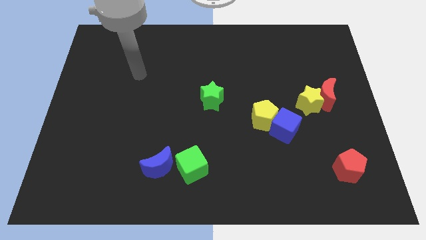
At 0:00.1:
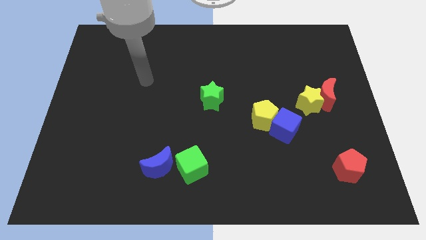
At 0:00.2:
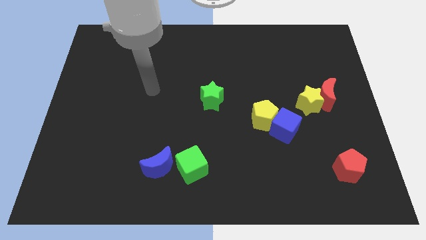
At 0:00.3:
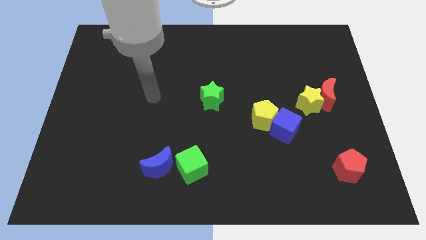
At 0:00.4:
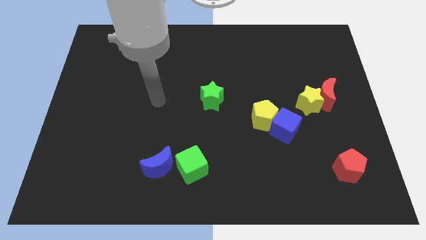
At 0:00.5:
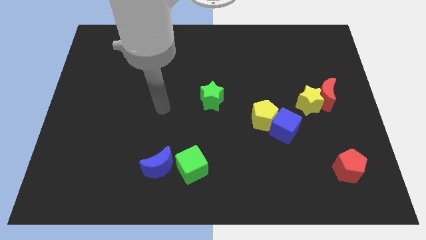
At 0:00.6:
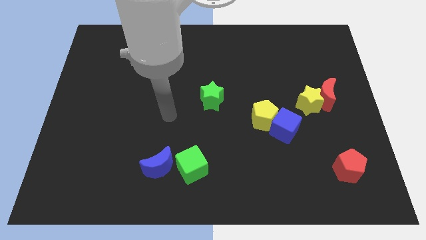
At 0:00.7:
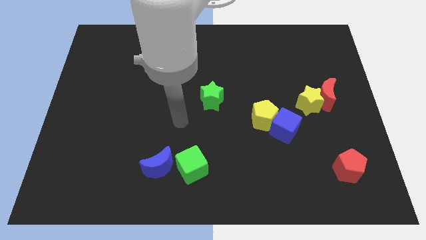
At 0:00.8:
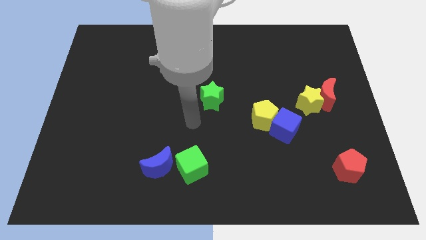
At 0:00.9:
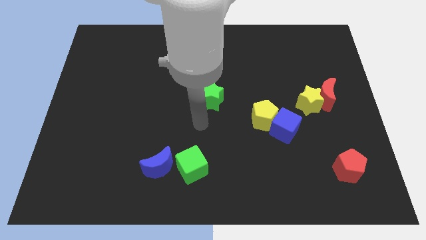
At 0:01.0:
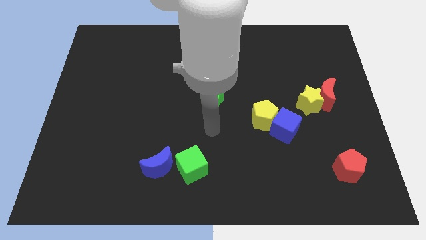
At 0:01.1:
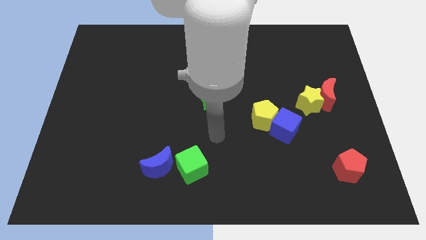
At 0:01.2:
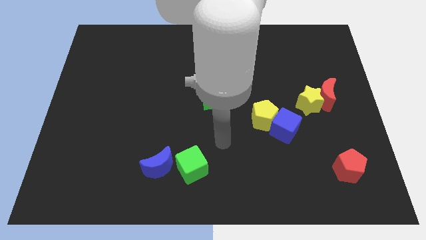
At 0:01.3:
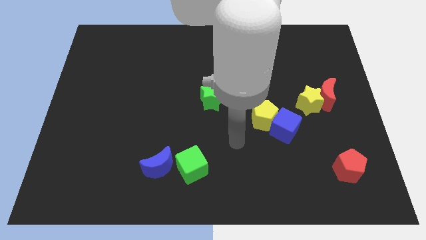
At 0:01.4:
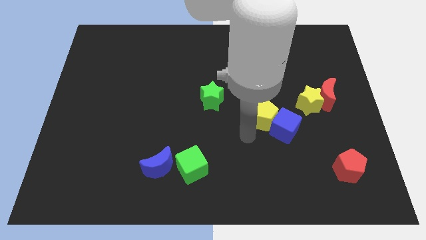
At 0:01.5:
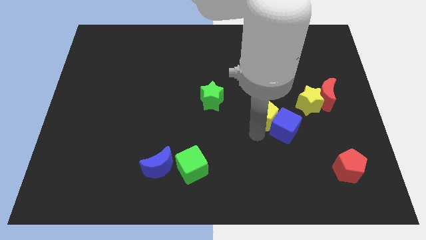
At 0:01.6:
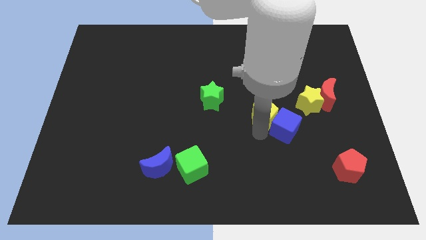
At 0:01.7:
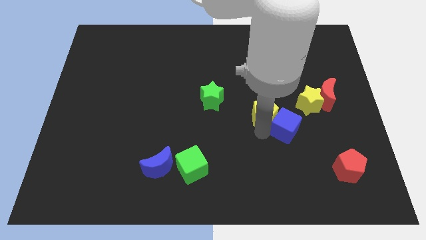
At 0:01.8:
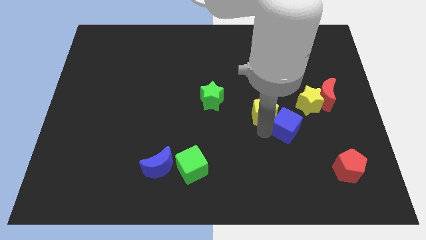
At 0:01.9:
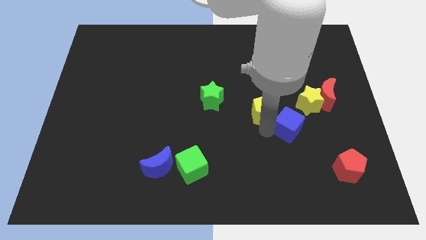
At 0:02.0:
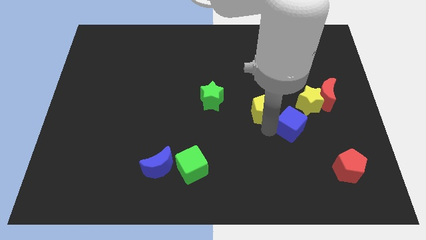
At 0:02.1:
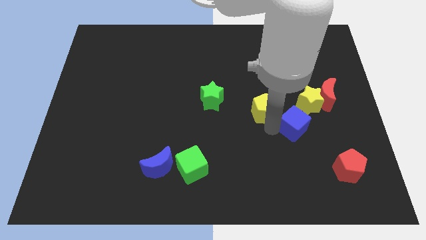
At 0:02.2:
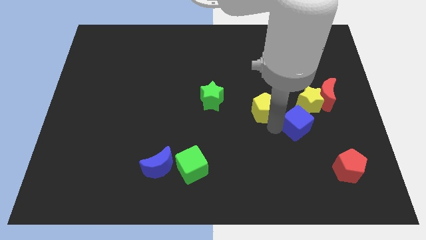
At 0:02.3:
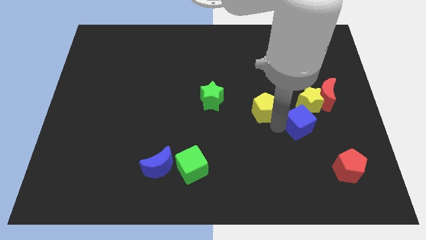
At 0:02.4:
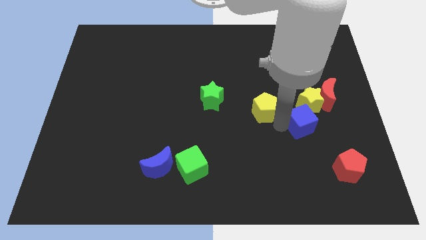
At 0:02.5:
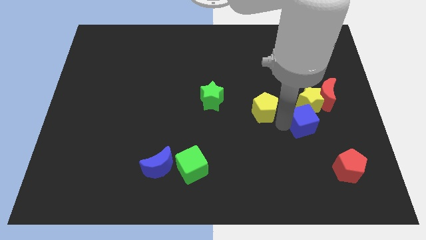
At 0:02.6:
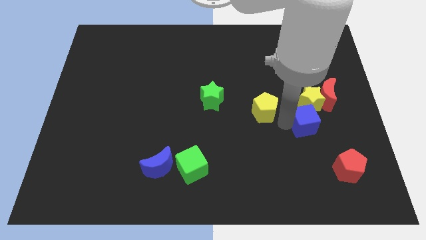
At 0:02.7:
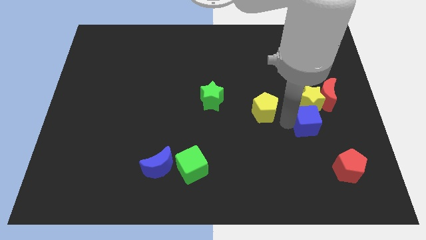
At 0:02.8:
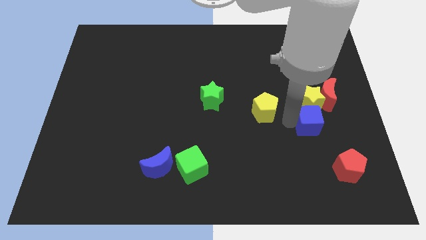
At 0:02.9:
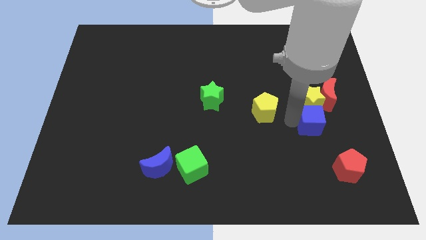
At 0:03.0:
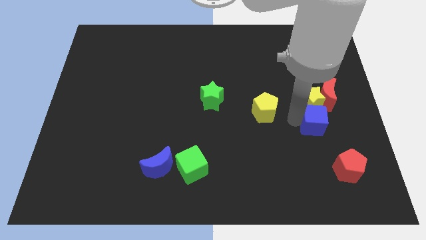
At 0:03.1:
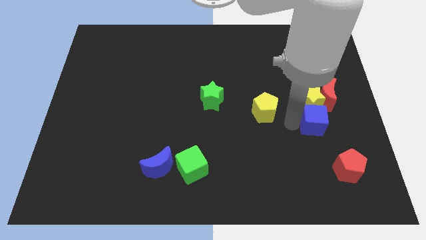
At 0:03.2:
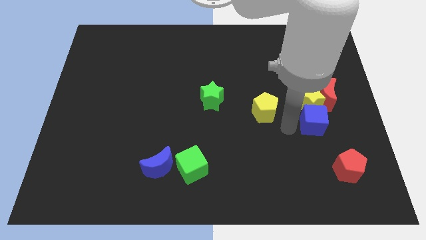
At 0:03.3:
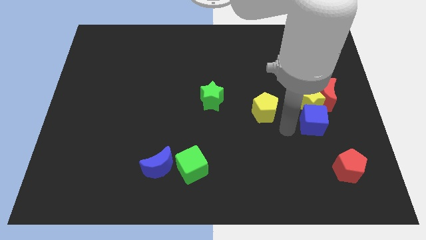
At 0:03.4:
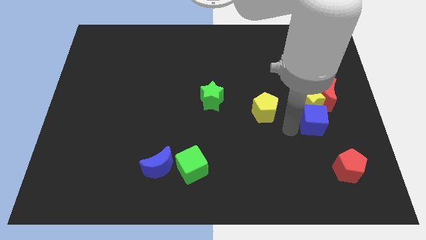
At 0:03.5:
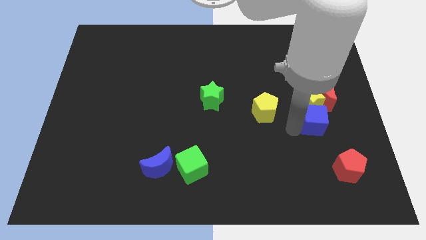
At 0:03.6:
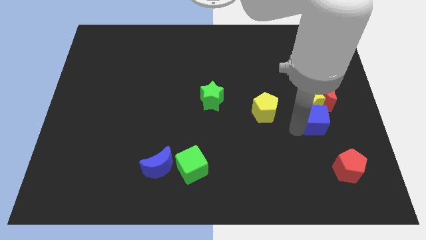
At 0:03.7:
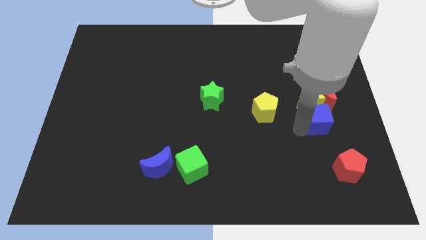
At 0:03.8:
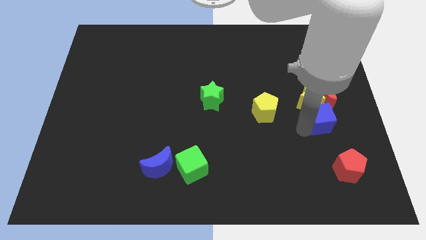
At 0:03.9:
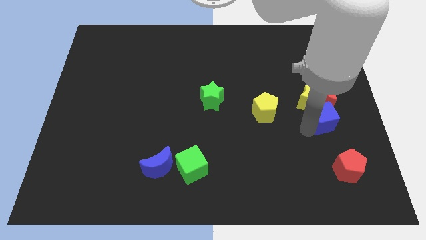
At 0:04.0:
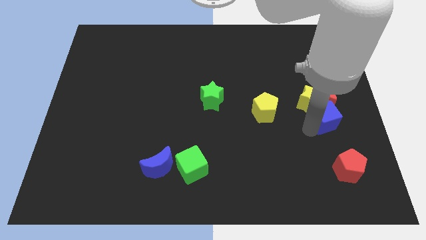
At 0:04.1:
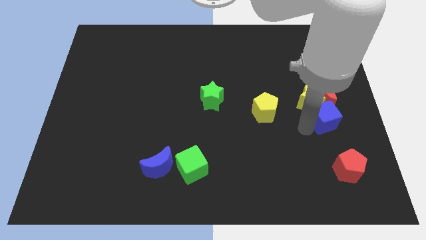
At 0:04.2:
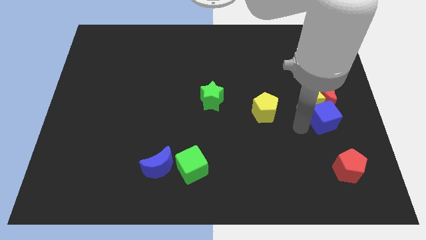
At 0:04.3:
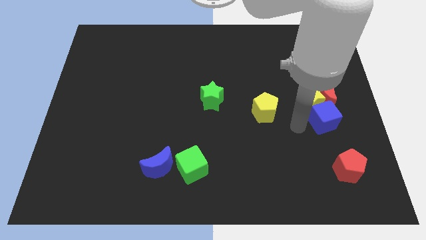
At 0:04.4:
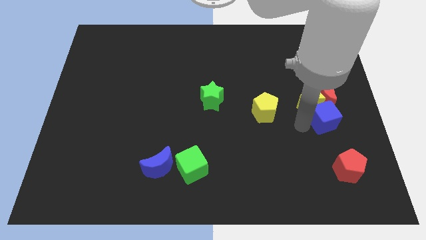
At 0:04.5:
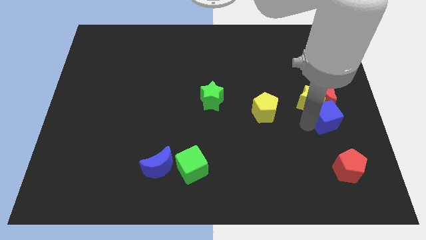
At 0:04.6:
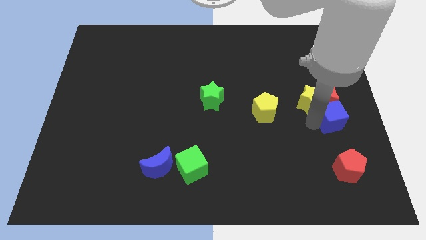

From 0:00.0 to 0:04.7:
push the blue cube to the right side

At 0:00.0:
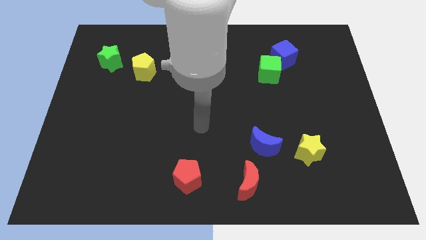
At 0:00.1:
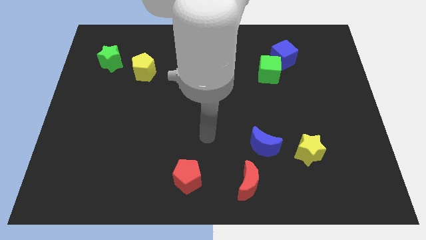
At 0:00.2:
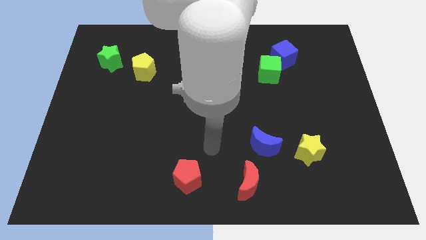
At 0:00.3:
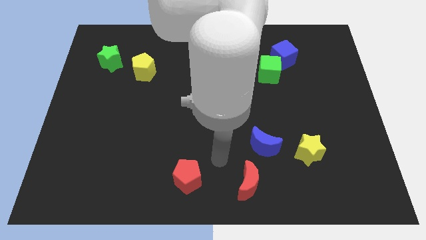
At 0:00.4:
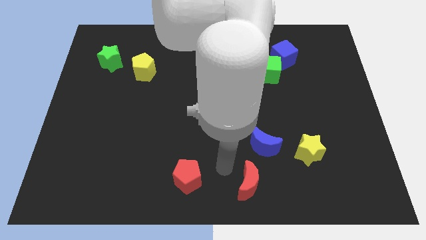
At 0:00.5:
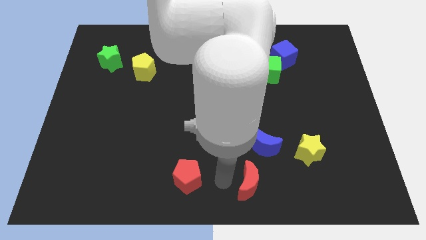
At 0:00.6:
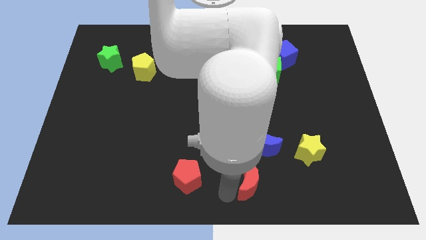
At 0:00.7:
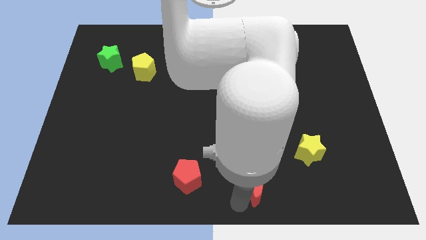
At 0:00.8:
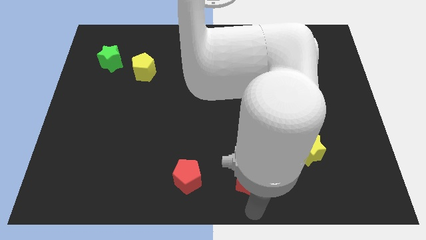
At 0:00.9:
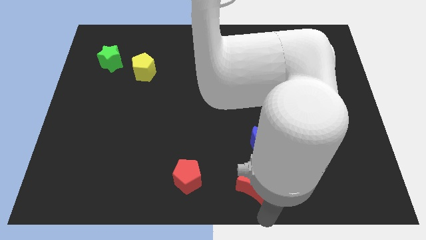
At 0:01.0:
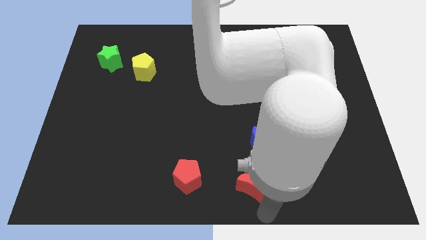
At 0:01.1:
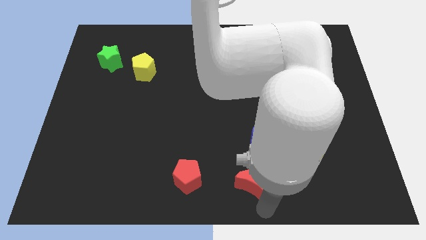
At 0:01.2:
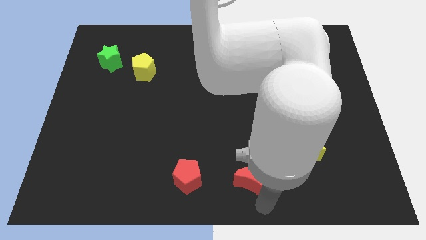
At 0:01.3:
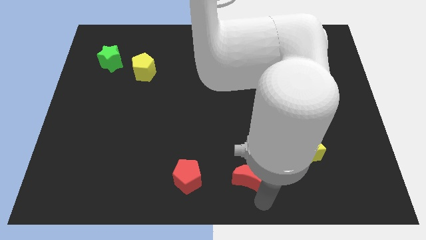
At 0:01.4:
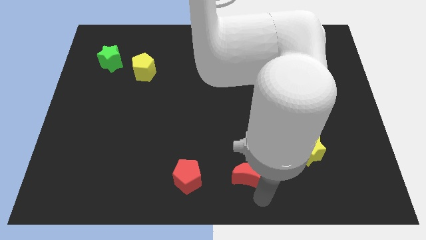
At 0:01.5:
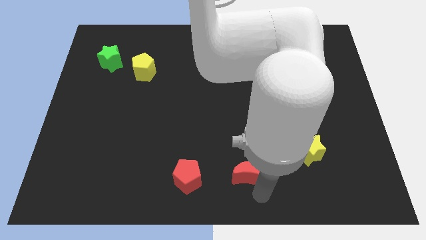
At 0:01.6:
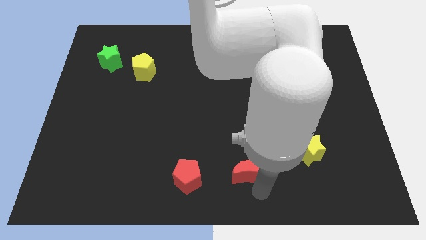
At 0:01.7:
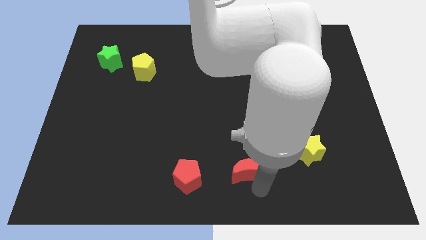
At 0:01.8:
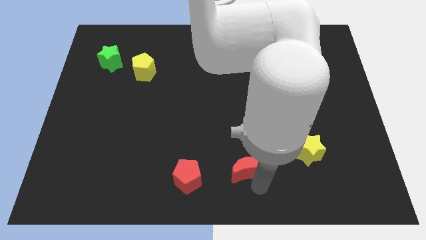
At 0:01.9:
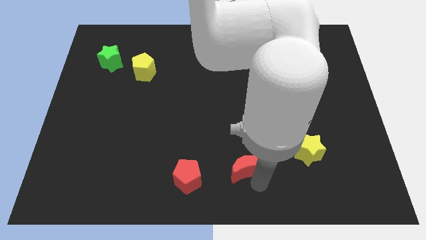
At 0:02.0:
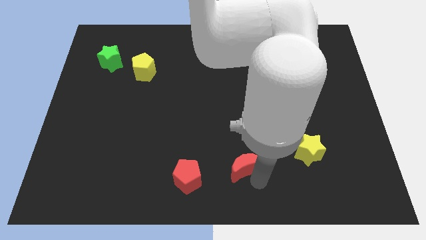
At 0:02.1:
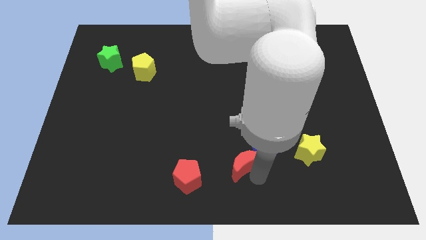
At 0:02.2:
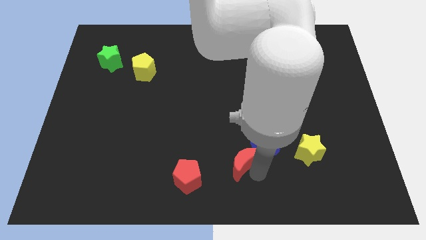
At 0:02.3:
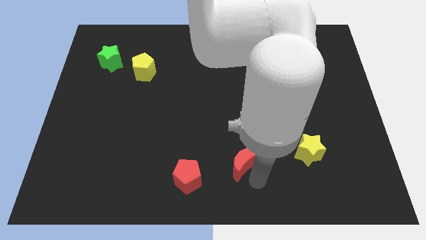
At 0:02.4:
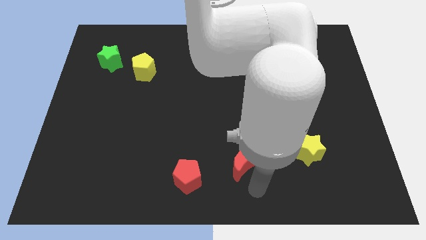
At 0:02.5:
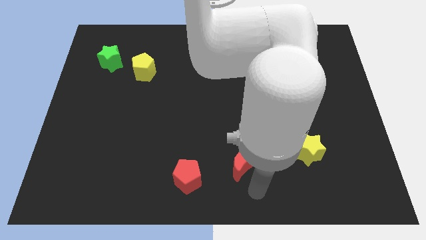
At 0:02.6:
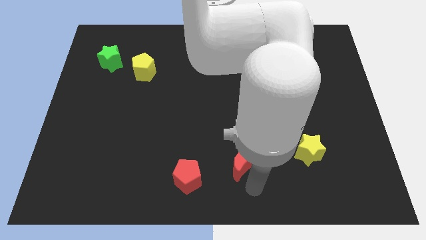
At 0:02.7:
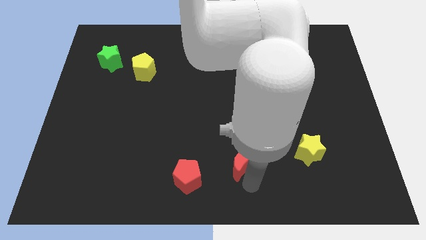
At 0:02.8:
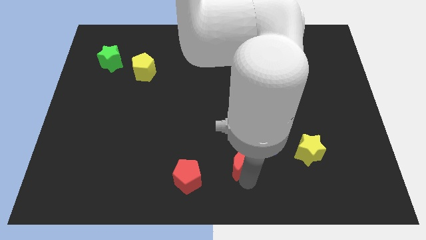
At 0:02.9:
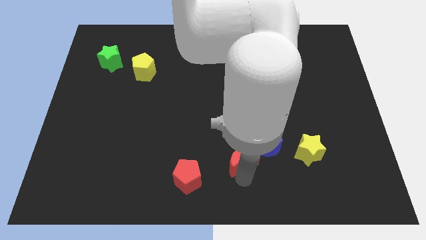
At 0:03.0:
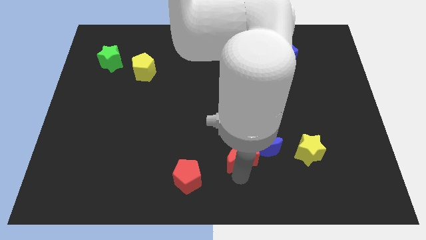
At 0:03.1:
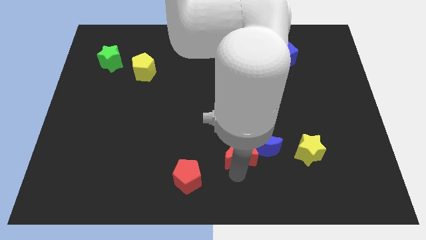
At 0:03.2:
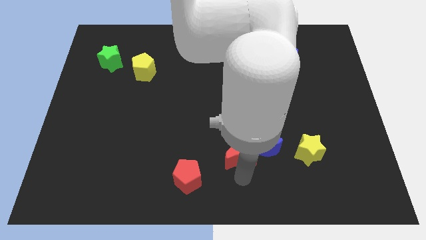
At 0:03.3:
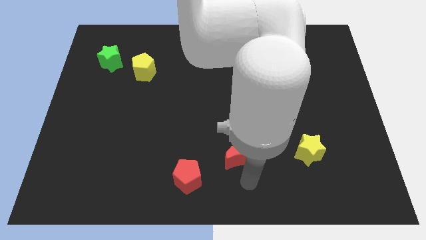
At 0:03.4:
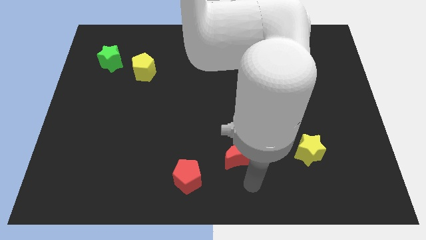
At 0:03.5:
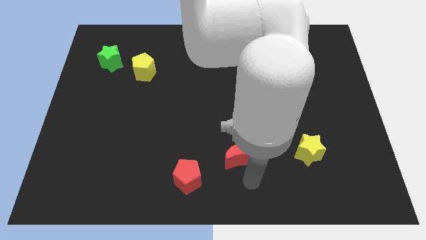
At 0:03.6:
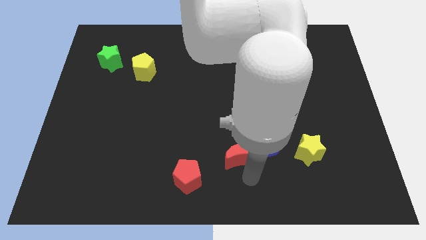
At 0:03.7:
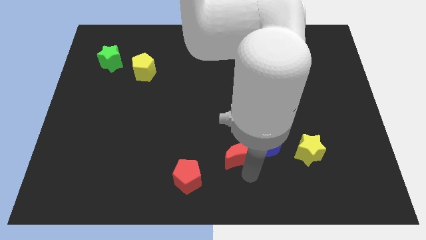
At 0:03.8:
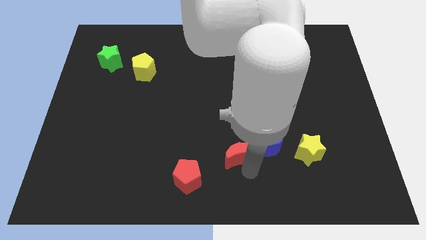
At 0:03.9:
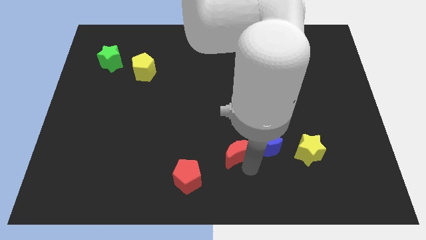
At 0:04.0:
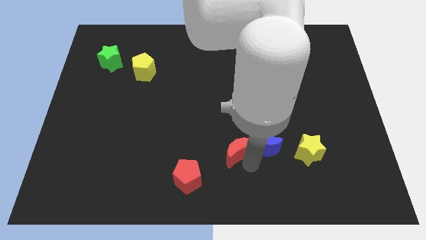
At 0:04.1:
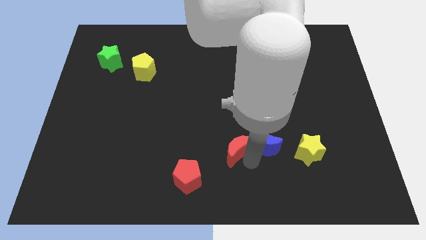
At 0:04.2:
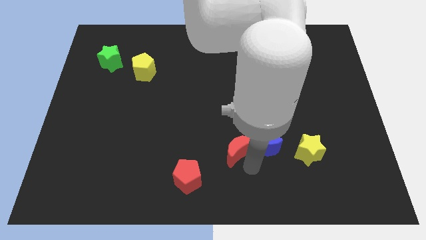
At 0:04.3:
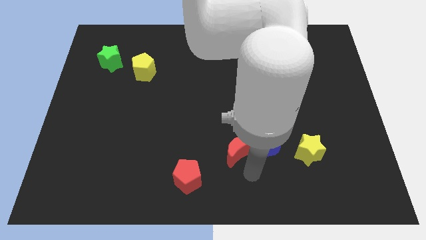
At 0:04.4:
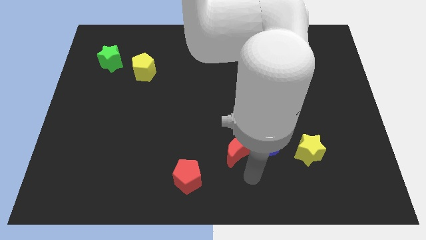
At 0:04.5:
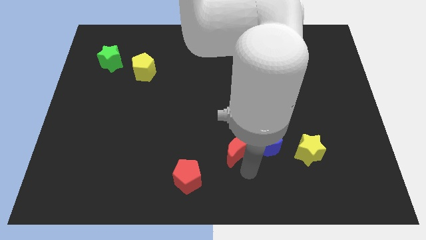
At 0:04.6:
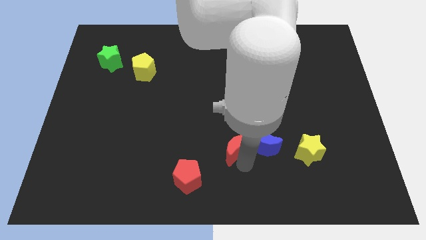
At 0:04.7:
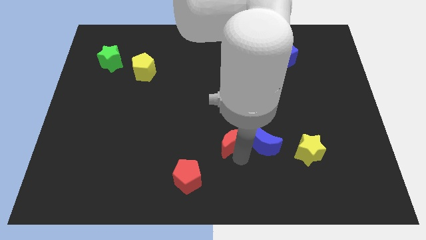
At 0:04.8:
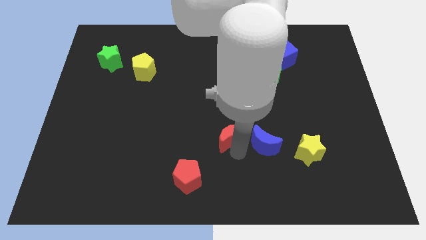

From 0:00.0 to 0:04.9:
push the red moon to the middle of the board
